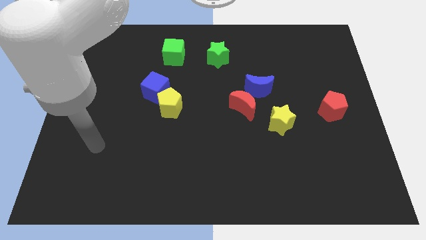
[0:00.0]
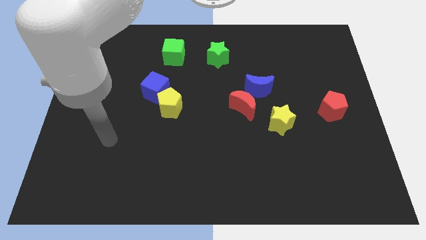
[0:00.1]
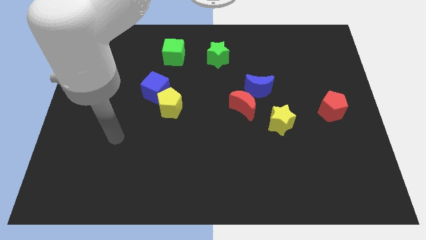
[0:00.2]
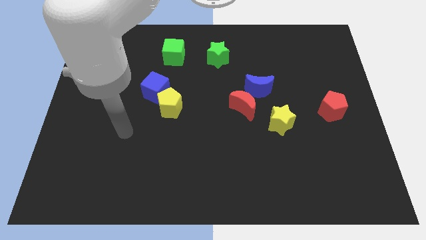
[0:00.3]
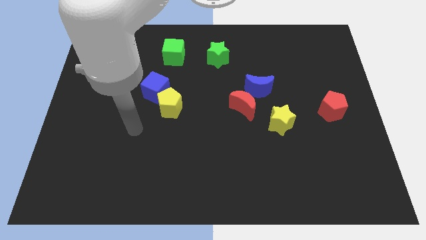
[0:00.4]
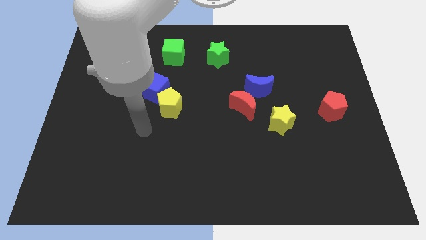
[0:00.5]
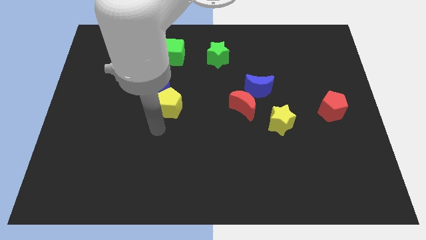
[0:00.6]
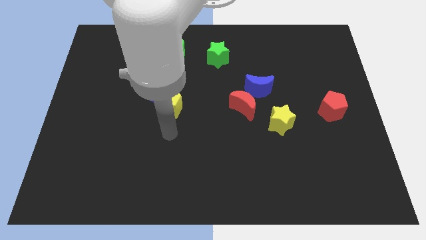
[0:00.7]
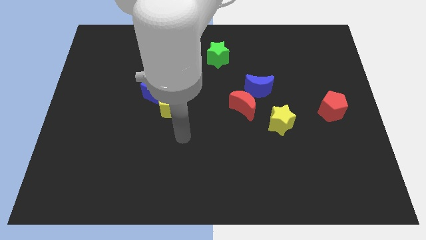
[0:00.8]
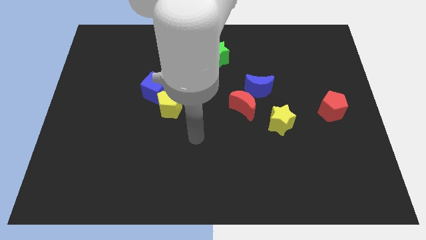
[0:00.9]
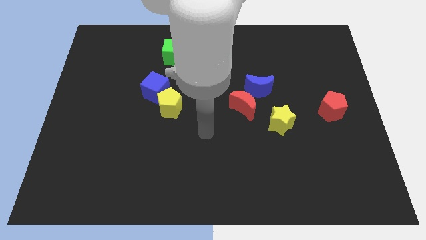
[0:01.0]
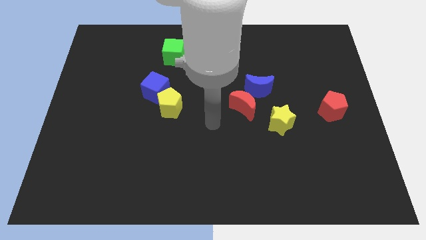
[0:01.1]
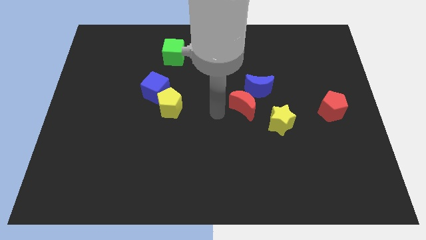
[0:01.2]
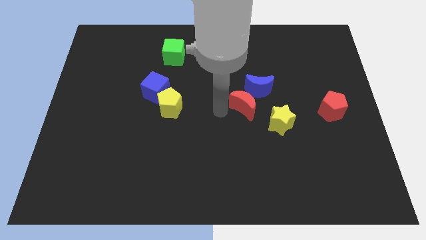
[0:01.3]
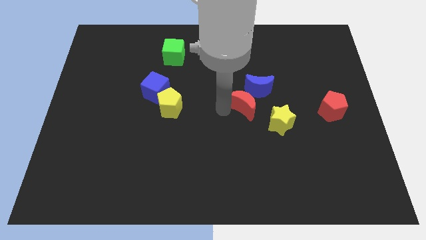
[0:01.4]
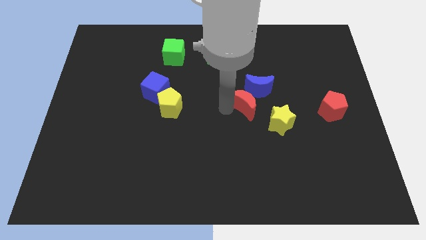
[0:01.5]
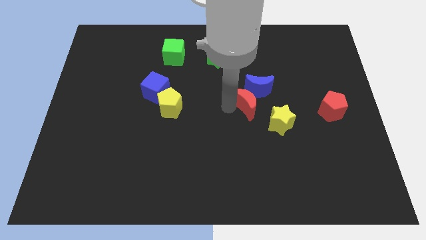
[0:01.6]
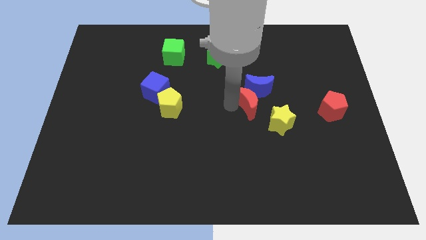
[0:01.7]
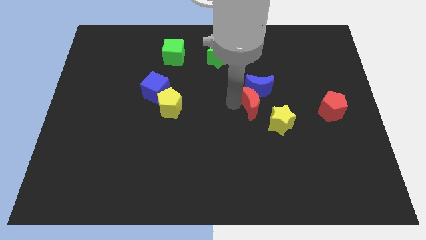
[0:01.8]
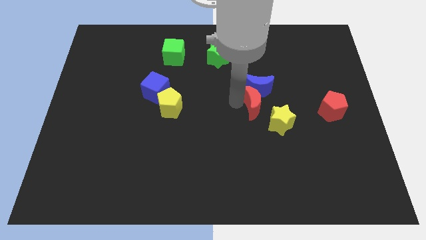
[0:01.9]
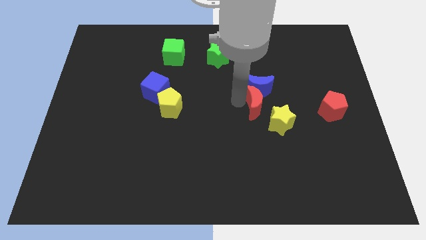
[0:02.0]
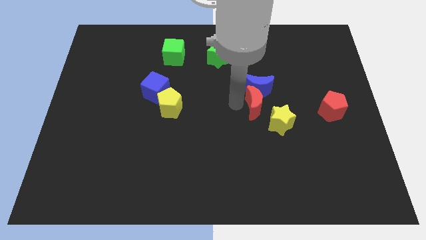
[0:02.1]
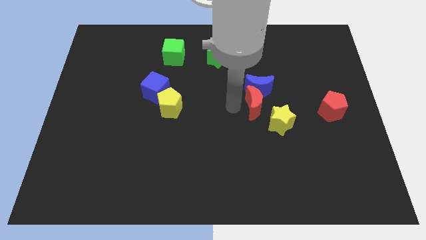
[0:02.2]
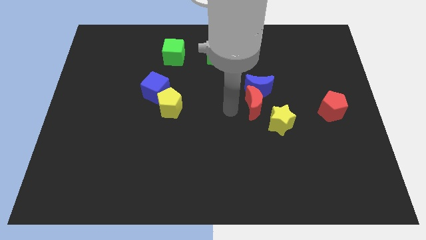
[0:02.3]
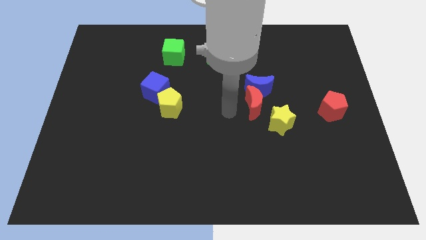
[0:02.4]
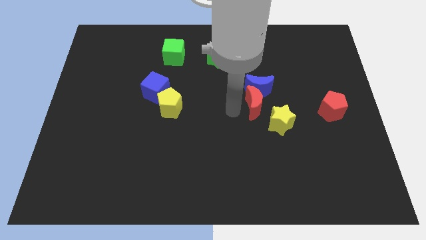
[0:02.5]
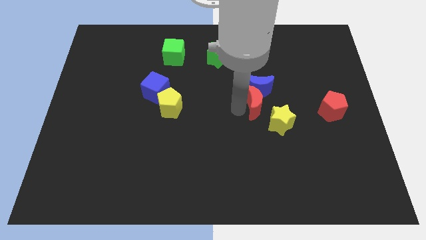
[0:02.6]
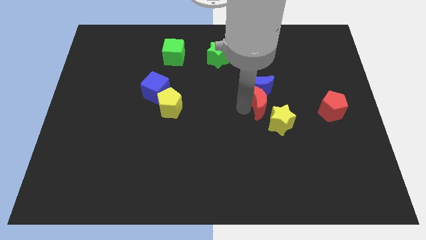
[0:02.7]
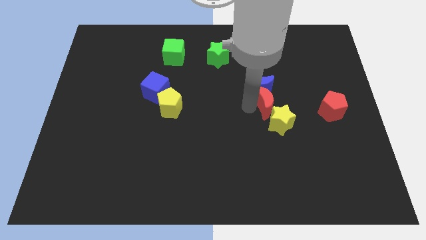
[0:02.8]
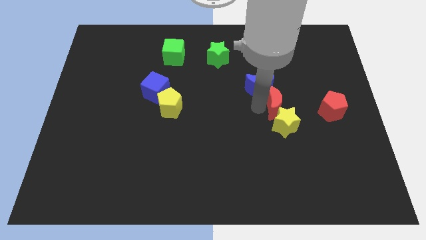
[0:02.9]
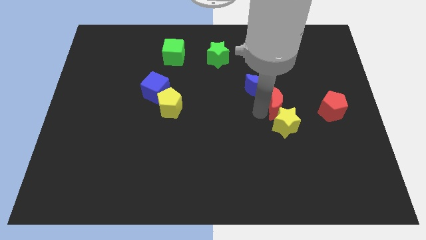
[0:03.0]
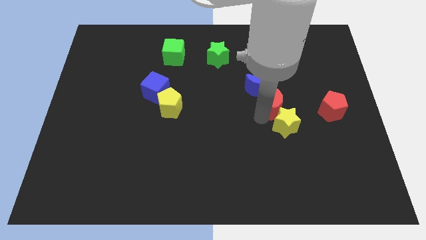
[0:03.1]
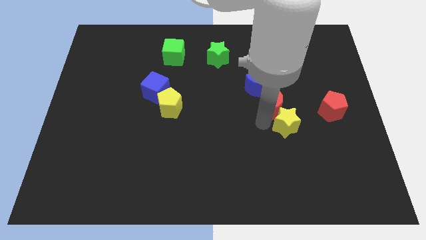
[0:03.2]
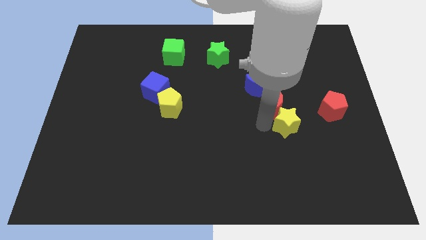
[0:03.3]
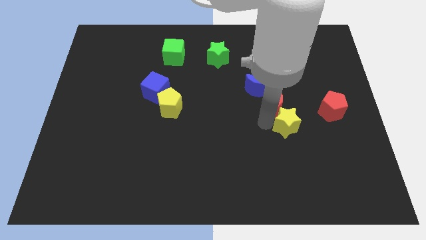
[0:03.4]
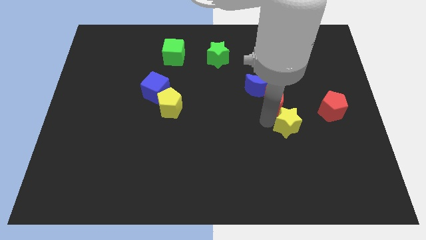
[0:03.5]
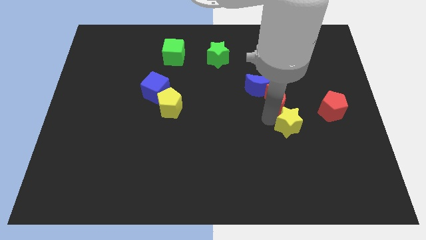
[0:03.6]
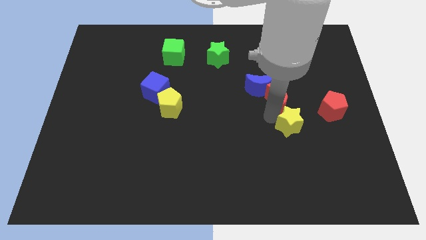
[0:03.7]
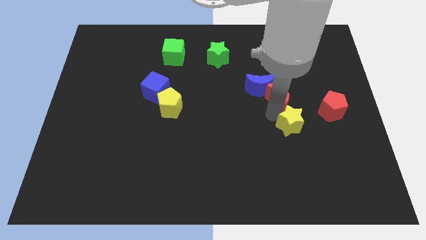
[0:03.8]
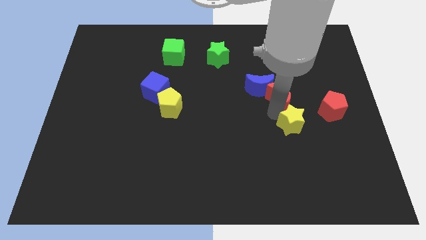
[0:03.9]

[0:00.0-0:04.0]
move the red moon somewhat up and then to the right

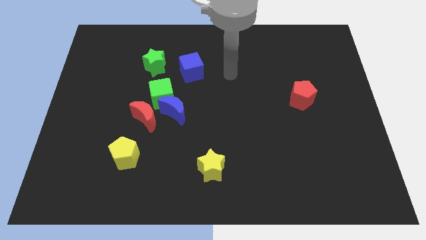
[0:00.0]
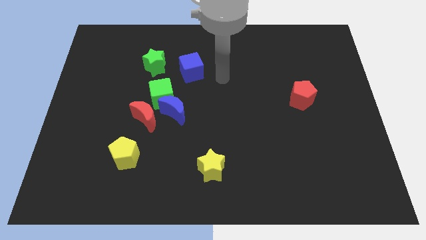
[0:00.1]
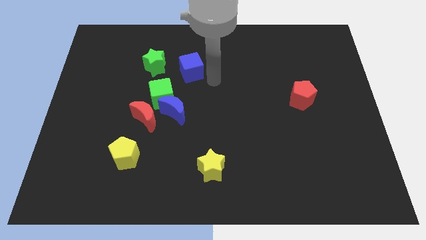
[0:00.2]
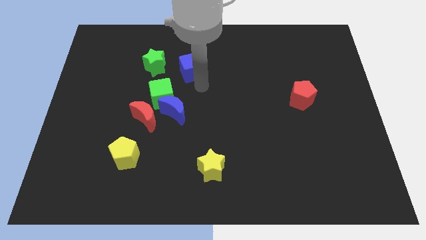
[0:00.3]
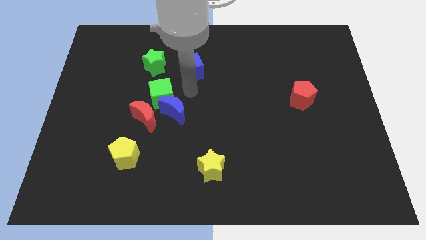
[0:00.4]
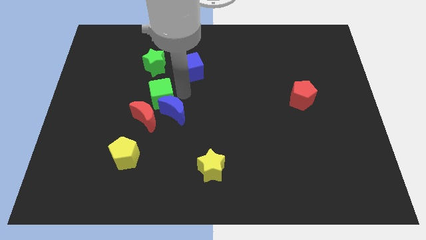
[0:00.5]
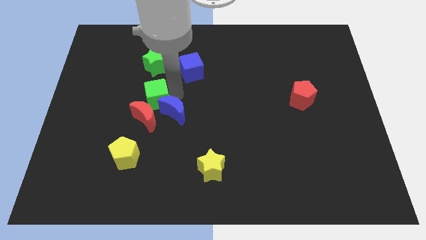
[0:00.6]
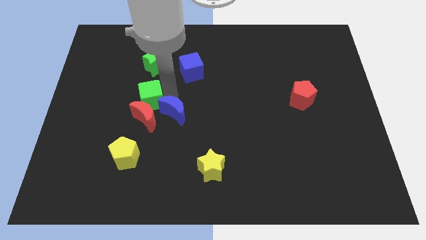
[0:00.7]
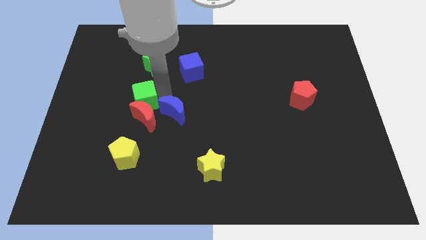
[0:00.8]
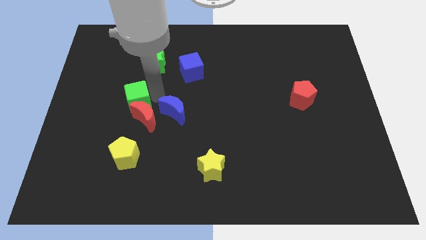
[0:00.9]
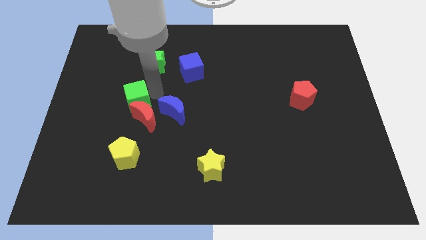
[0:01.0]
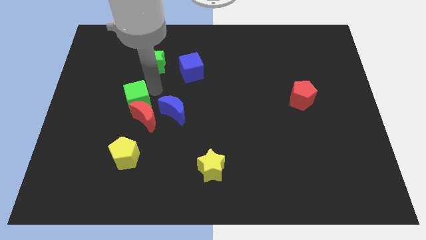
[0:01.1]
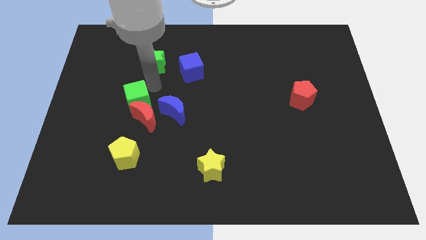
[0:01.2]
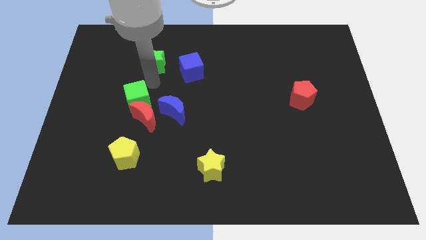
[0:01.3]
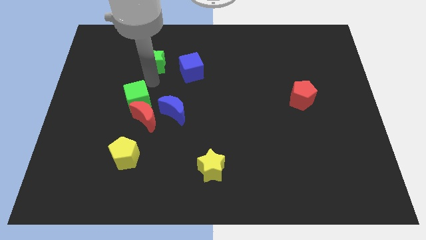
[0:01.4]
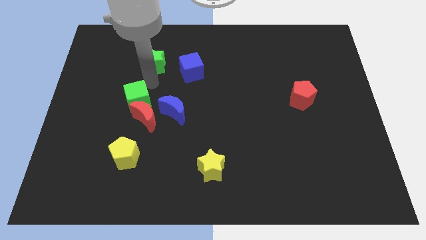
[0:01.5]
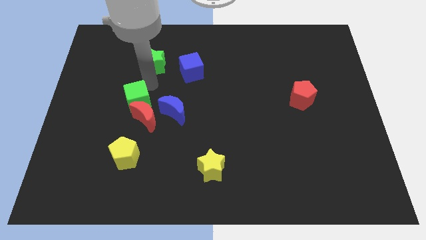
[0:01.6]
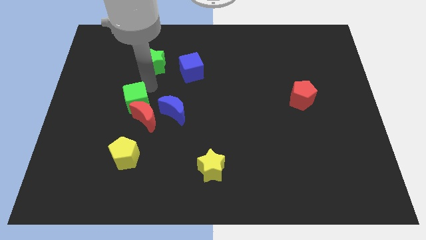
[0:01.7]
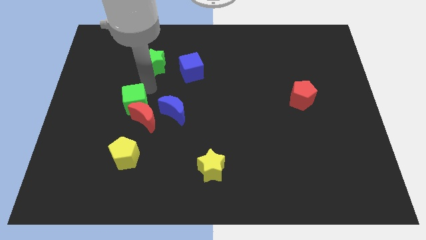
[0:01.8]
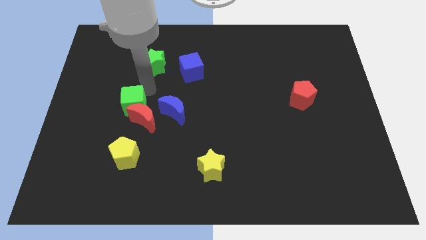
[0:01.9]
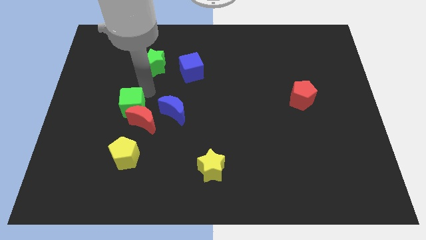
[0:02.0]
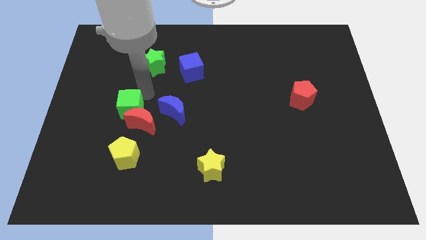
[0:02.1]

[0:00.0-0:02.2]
slightly move the green cube downwards and then to the left

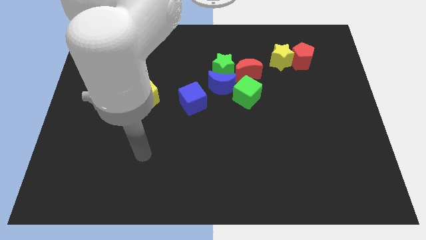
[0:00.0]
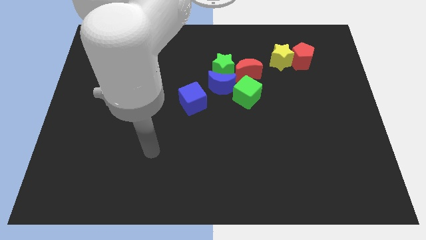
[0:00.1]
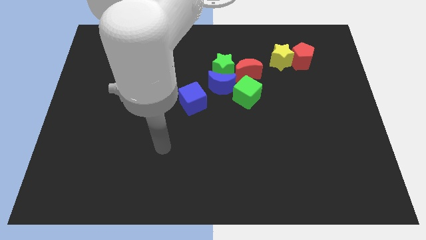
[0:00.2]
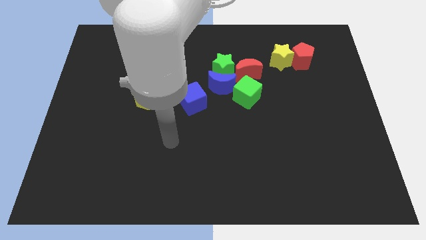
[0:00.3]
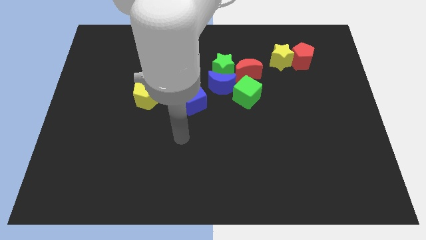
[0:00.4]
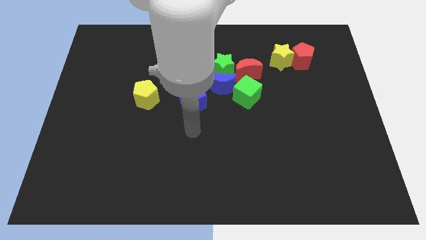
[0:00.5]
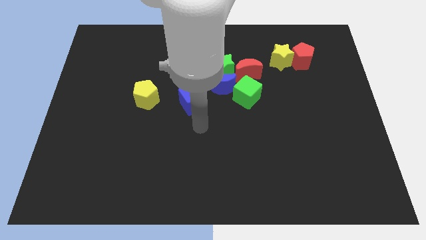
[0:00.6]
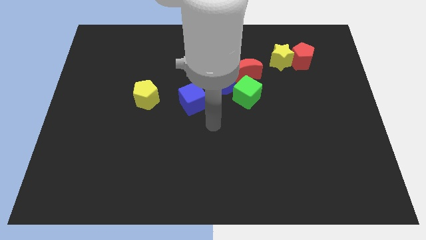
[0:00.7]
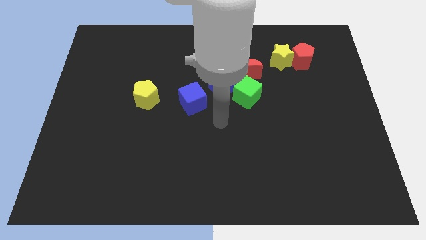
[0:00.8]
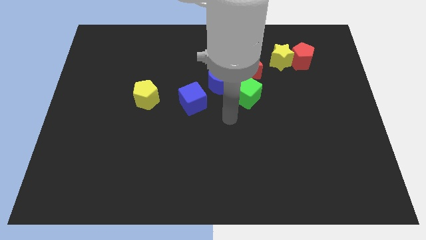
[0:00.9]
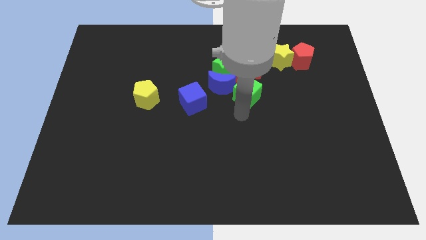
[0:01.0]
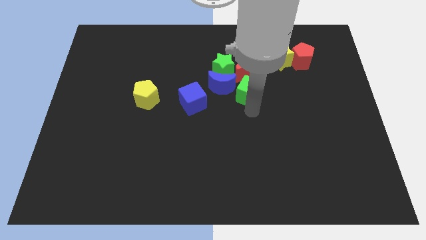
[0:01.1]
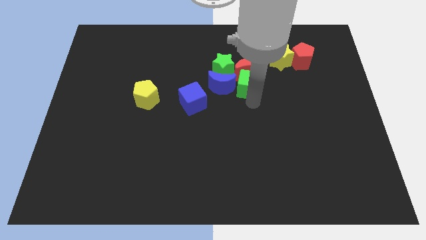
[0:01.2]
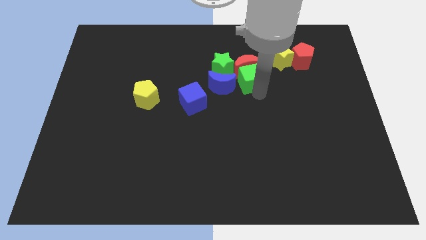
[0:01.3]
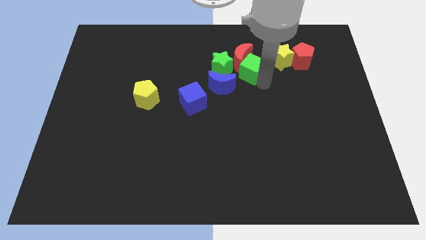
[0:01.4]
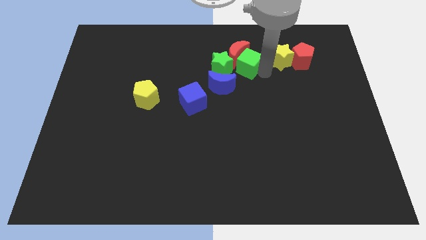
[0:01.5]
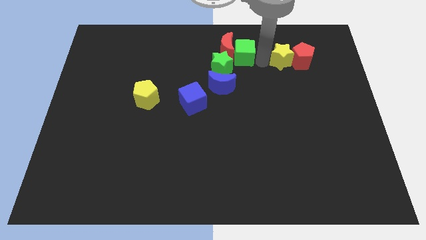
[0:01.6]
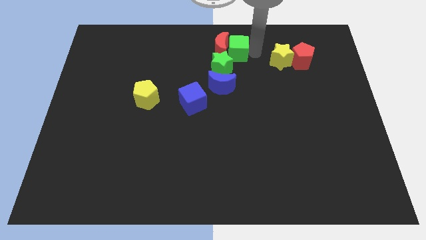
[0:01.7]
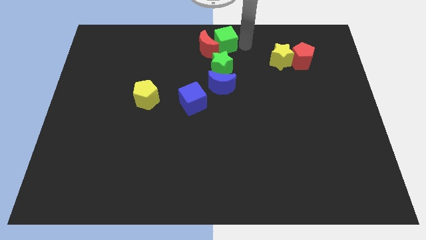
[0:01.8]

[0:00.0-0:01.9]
move the red moon a little left
